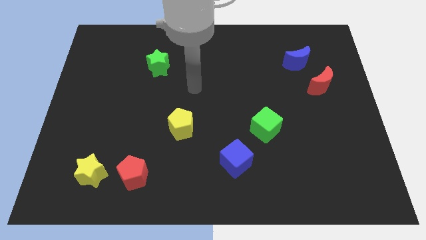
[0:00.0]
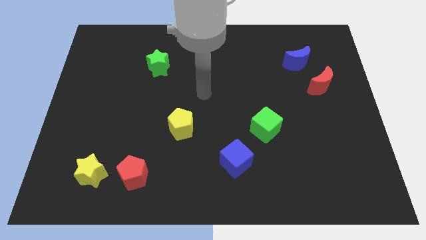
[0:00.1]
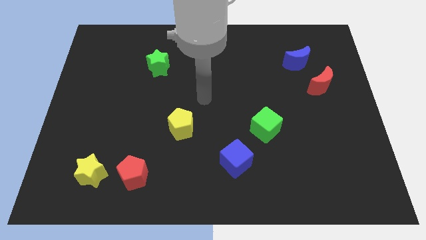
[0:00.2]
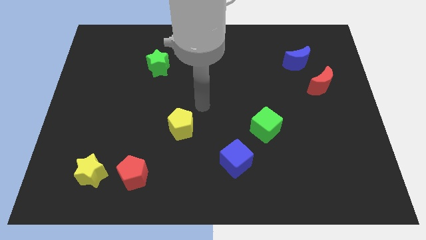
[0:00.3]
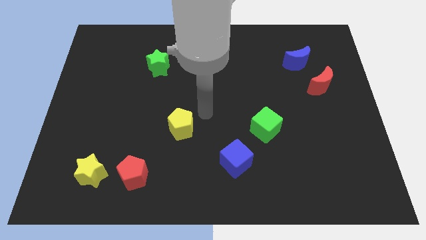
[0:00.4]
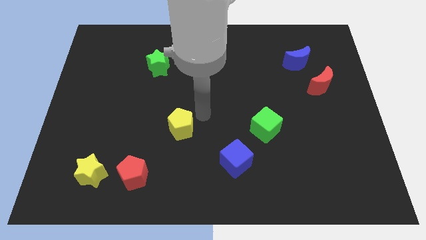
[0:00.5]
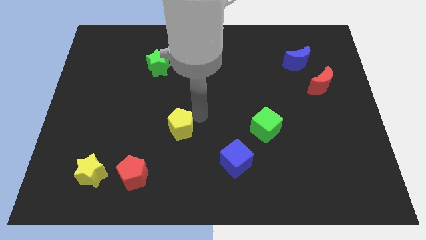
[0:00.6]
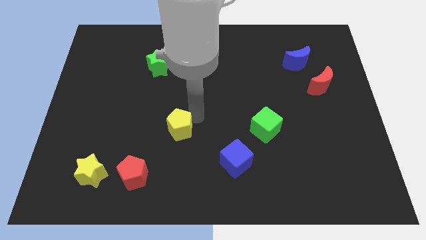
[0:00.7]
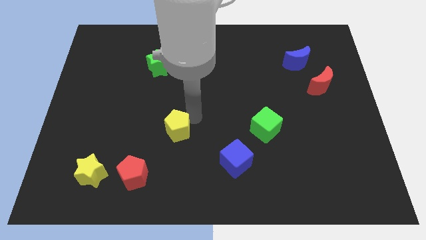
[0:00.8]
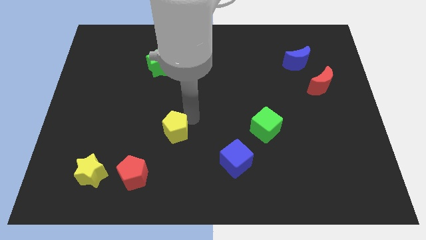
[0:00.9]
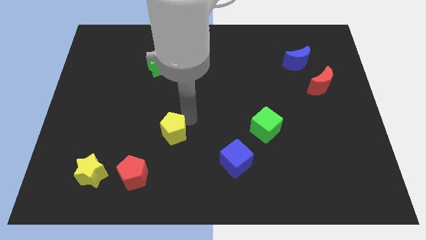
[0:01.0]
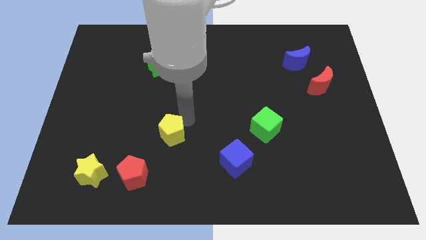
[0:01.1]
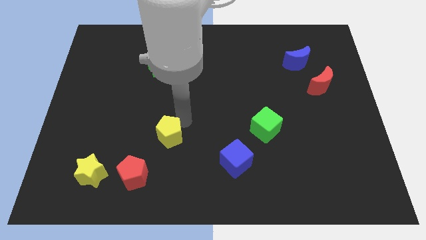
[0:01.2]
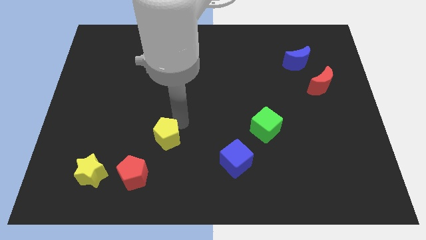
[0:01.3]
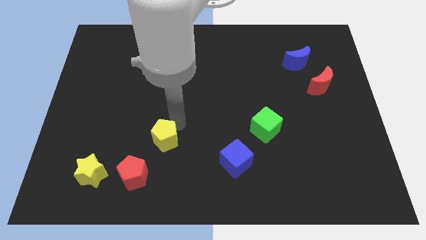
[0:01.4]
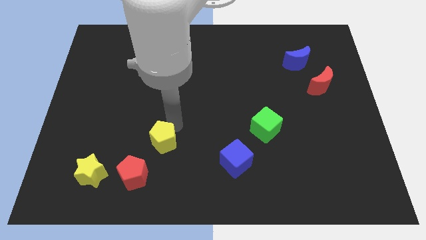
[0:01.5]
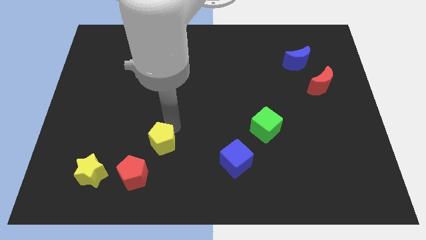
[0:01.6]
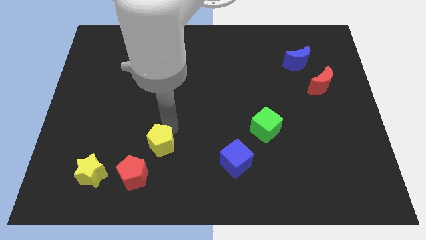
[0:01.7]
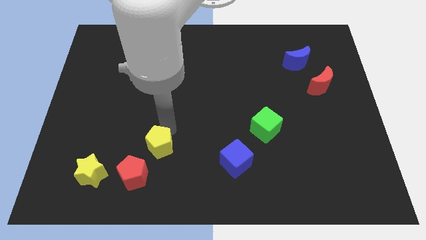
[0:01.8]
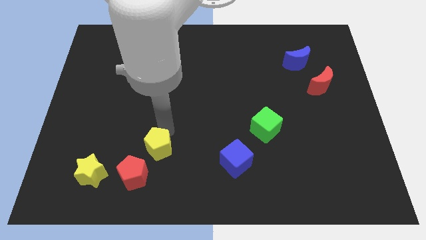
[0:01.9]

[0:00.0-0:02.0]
push the yellow pentagon downwards and then to the left a little bit

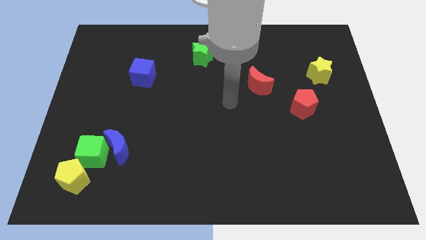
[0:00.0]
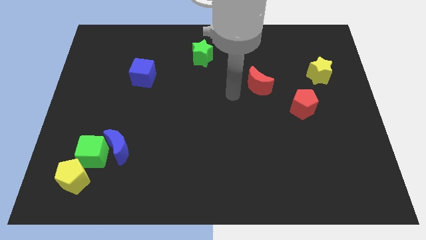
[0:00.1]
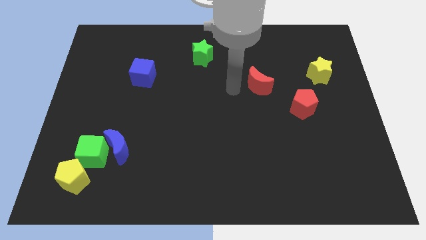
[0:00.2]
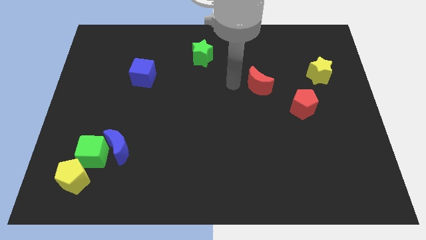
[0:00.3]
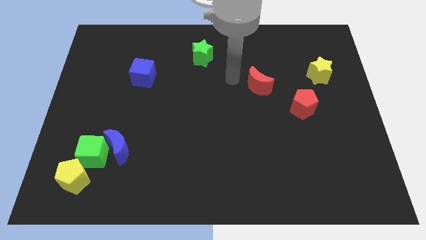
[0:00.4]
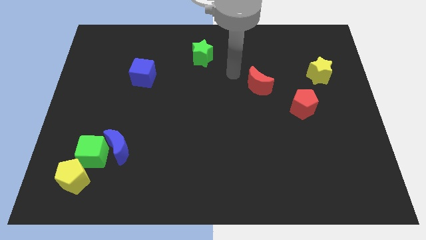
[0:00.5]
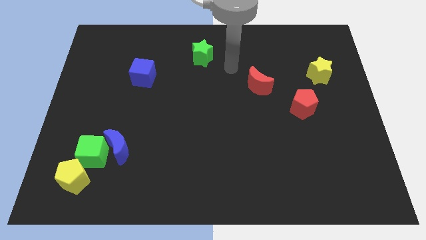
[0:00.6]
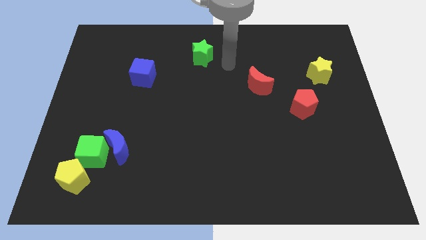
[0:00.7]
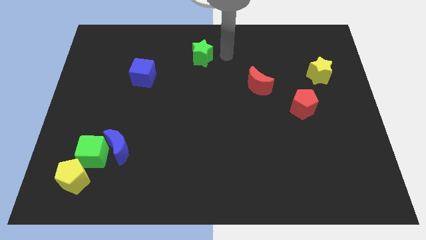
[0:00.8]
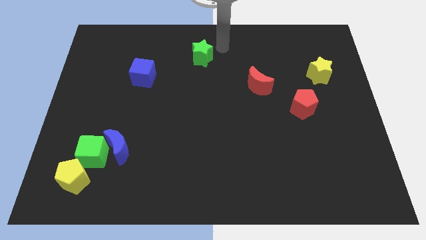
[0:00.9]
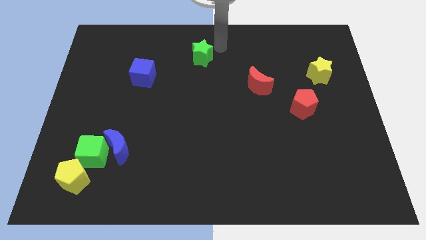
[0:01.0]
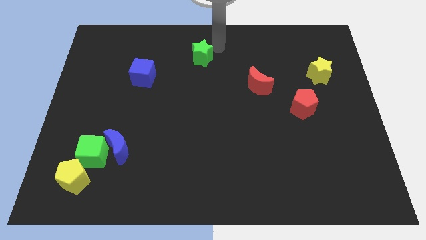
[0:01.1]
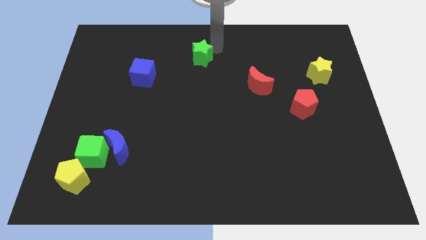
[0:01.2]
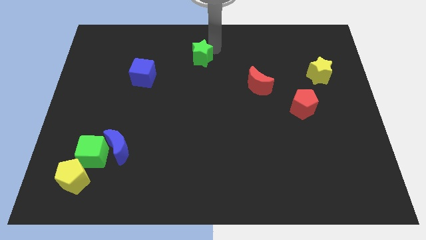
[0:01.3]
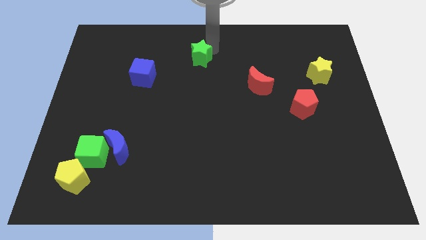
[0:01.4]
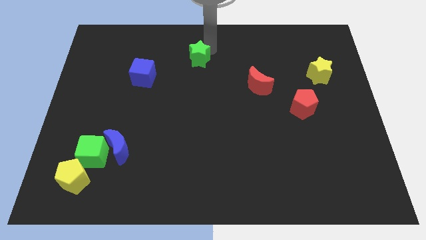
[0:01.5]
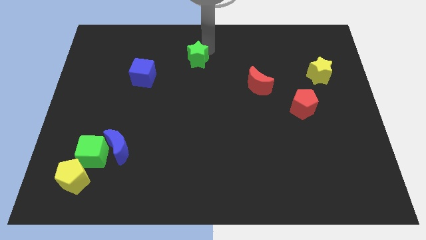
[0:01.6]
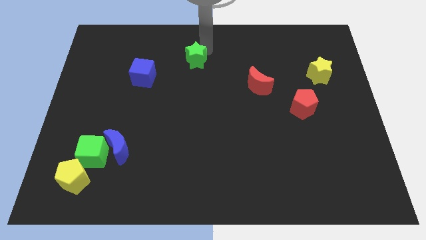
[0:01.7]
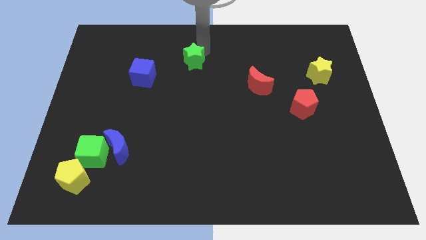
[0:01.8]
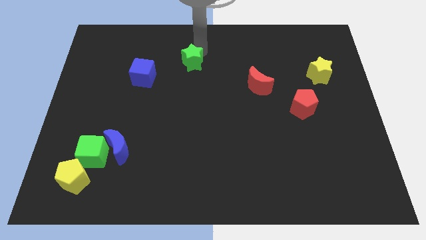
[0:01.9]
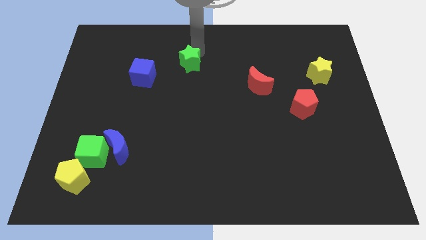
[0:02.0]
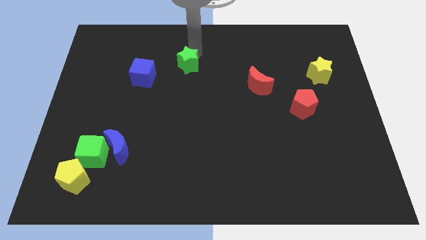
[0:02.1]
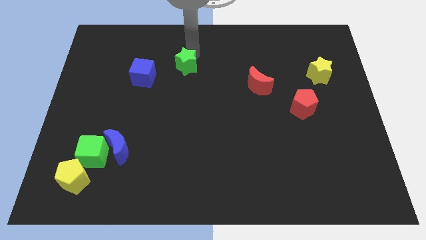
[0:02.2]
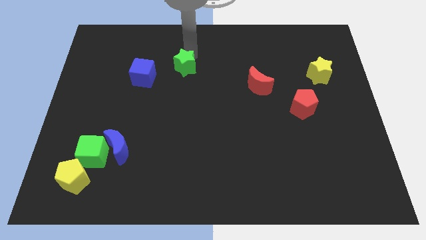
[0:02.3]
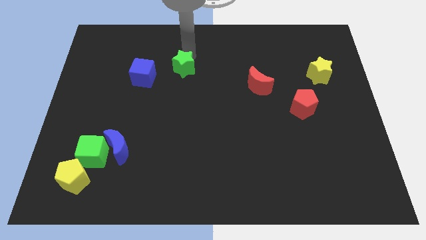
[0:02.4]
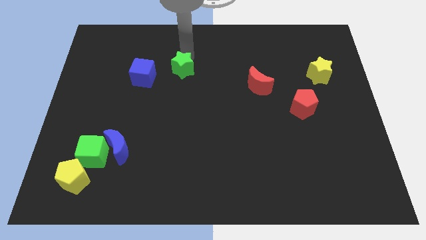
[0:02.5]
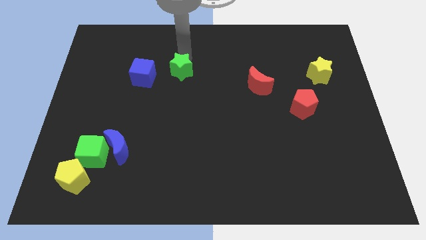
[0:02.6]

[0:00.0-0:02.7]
slightly move the green star diagonally down and to the left

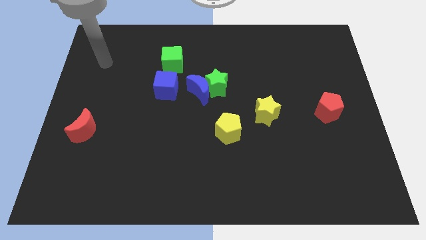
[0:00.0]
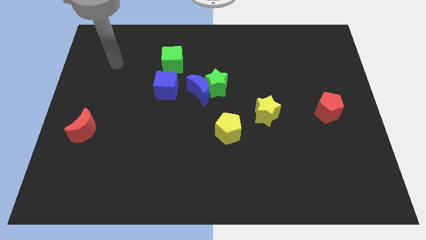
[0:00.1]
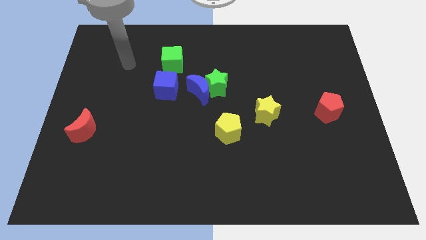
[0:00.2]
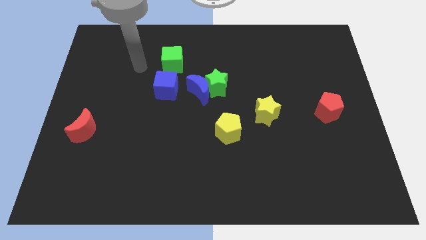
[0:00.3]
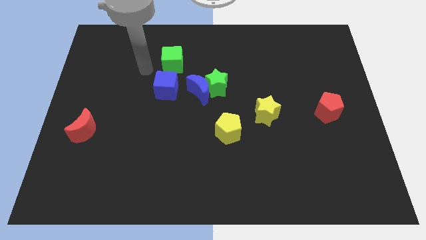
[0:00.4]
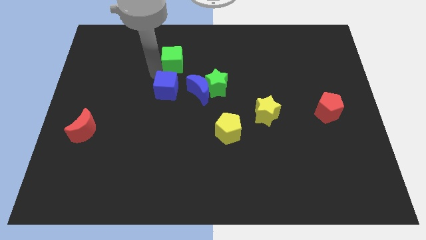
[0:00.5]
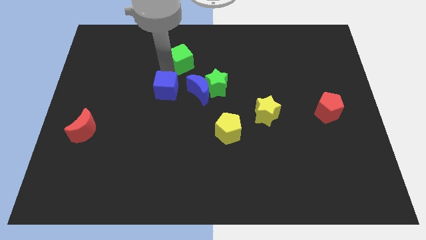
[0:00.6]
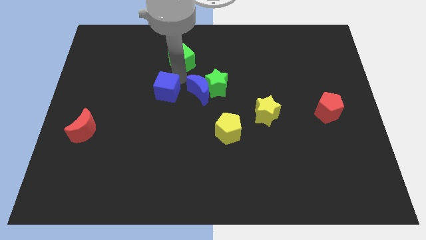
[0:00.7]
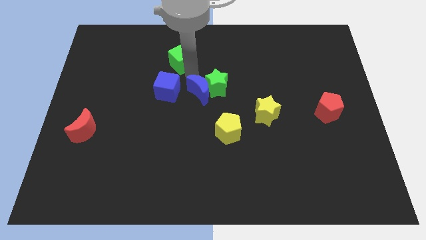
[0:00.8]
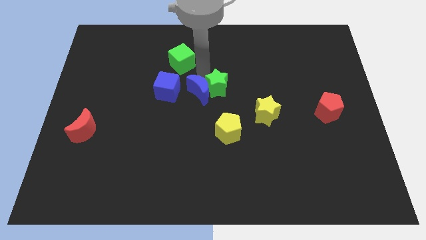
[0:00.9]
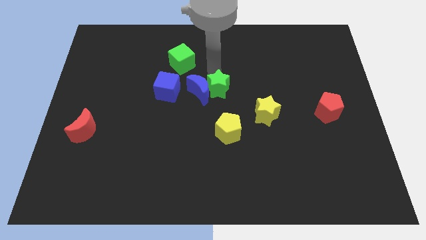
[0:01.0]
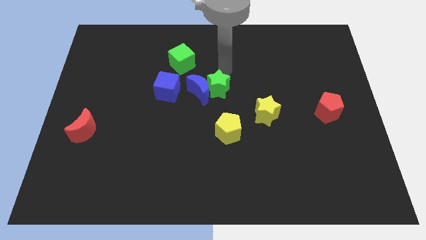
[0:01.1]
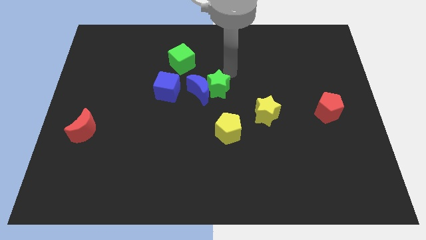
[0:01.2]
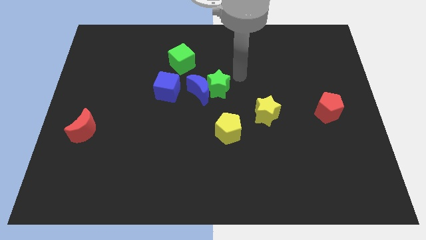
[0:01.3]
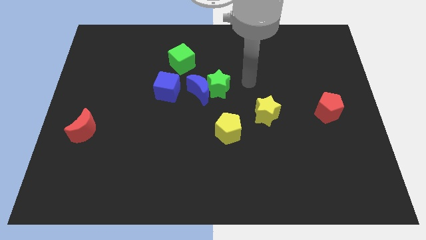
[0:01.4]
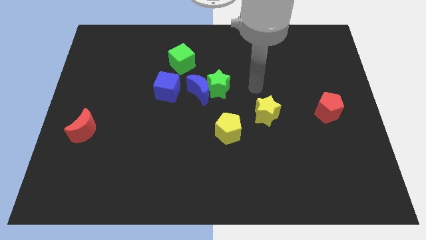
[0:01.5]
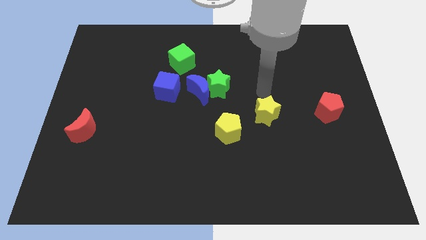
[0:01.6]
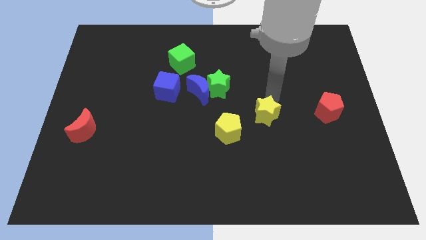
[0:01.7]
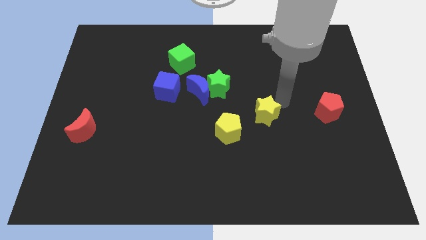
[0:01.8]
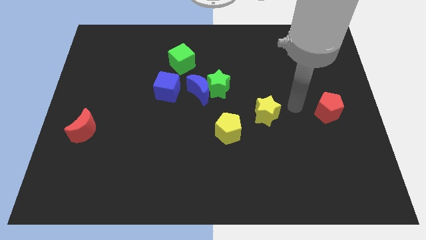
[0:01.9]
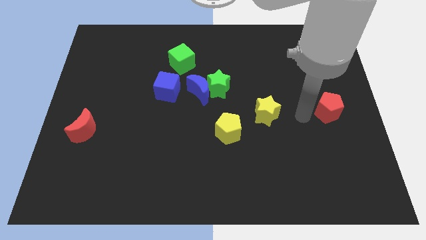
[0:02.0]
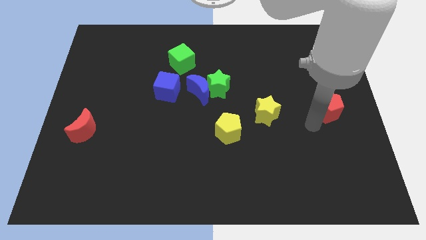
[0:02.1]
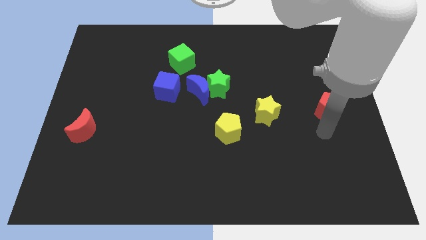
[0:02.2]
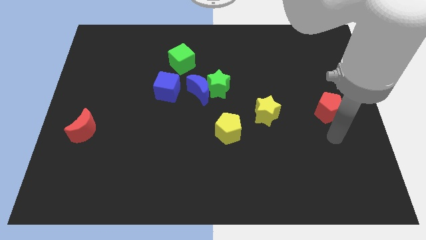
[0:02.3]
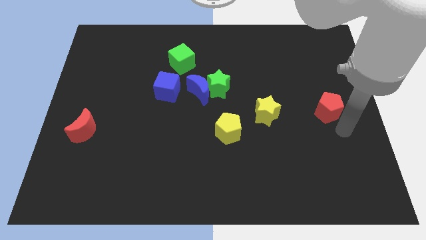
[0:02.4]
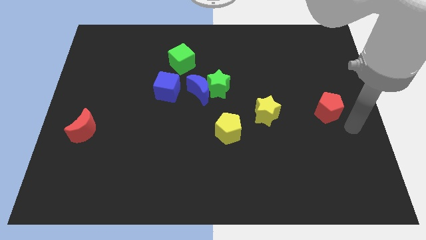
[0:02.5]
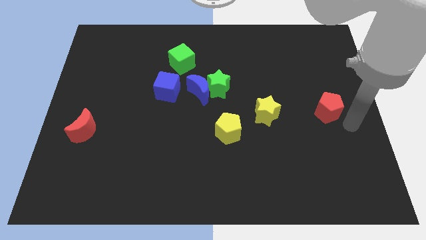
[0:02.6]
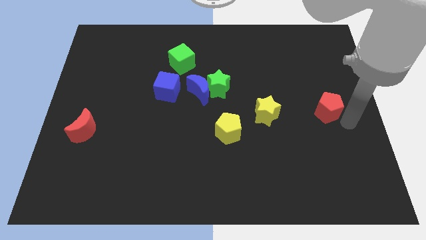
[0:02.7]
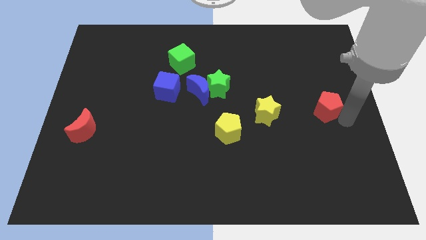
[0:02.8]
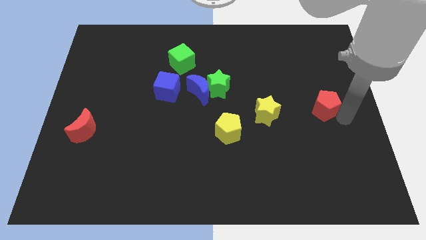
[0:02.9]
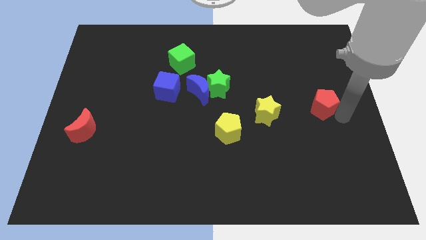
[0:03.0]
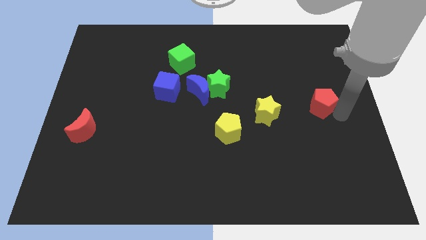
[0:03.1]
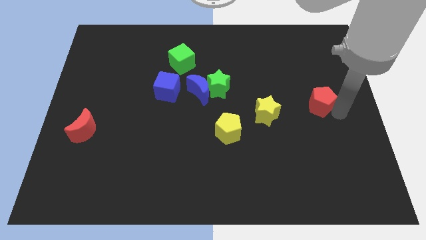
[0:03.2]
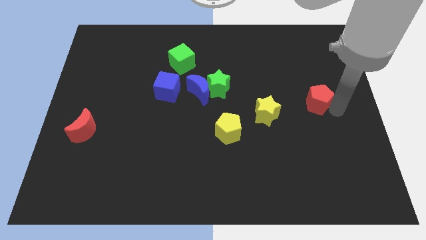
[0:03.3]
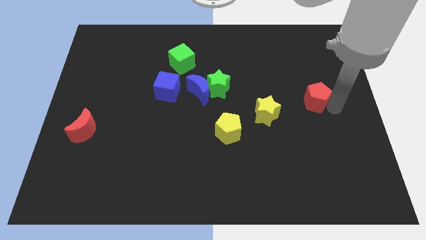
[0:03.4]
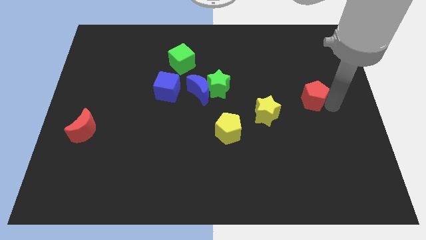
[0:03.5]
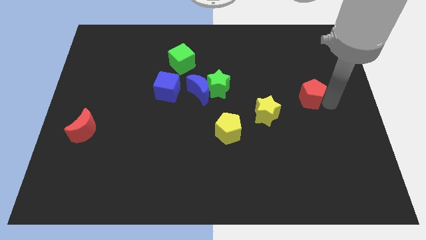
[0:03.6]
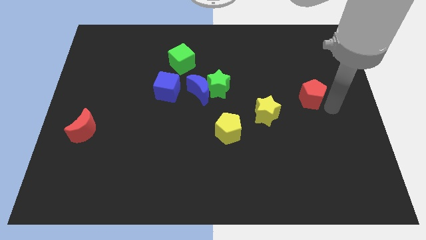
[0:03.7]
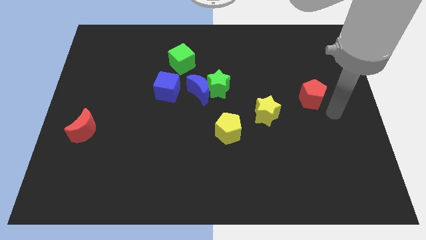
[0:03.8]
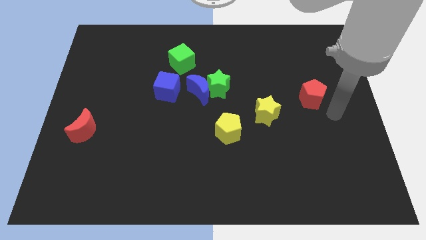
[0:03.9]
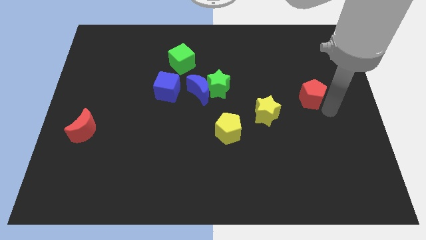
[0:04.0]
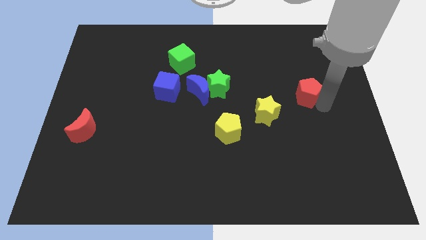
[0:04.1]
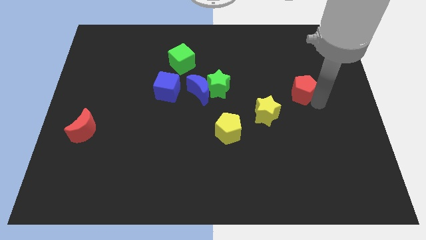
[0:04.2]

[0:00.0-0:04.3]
push the red pentagon slightly up and then left
